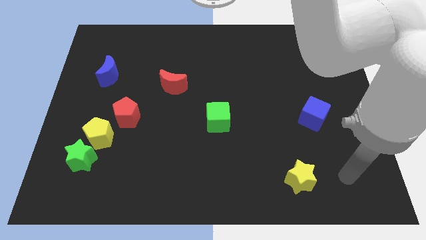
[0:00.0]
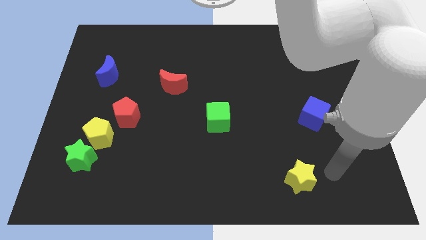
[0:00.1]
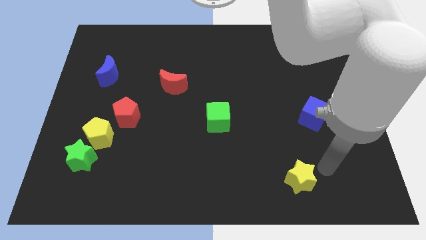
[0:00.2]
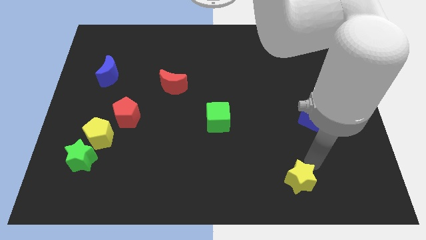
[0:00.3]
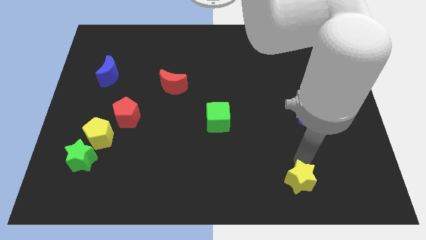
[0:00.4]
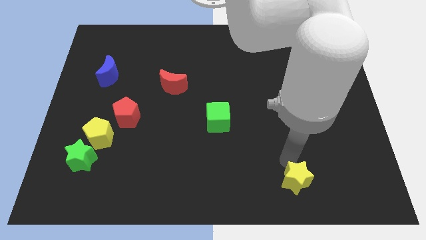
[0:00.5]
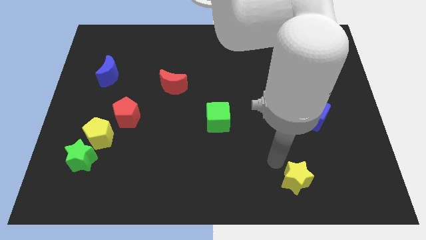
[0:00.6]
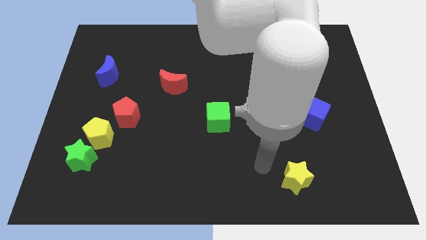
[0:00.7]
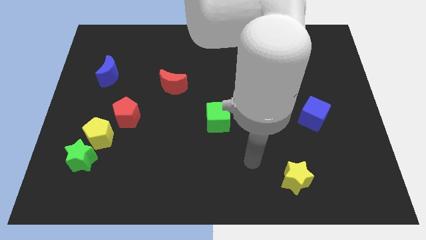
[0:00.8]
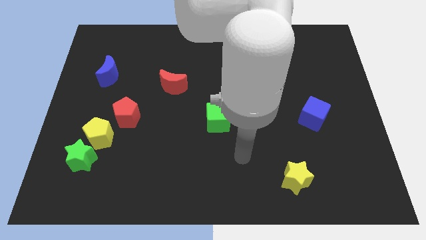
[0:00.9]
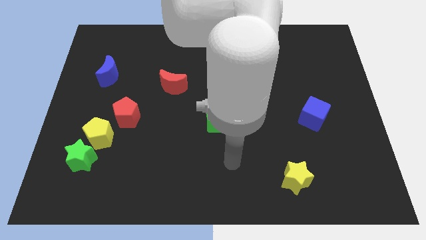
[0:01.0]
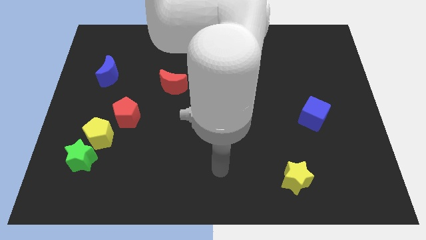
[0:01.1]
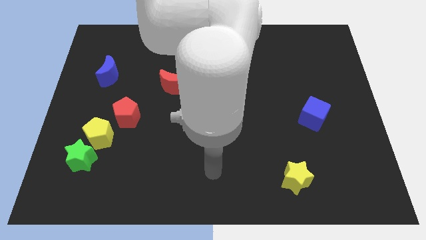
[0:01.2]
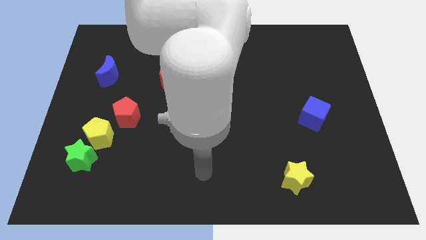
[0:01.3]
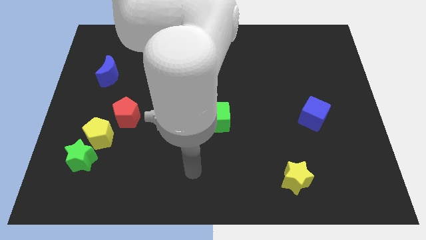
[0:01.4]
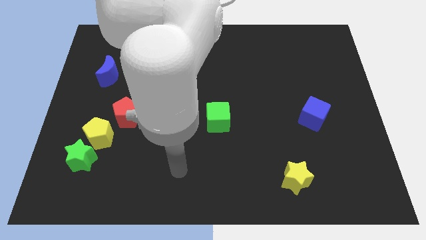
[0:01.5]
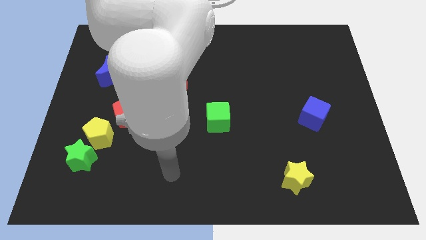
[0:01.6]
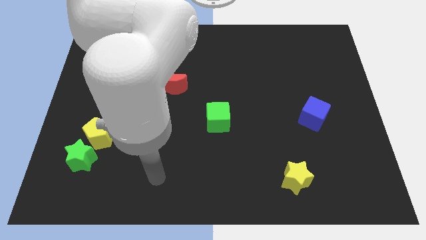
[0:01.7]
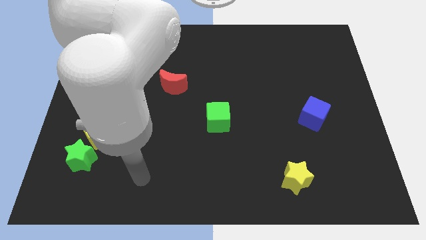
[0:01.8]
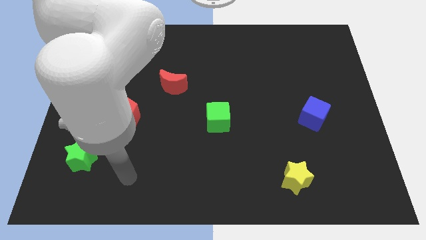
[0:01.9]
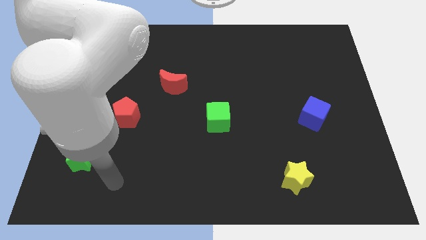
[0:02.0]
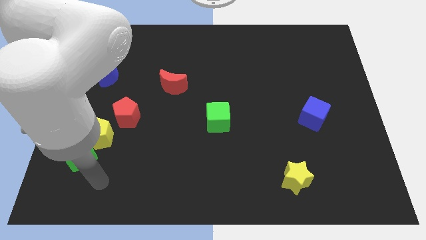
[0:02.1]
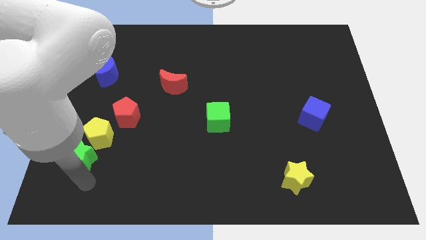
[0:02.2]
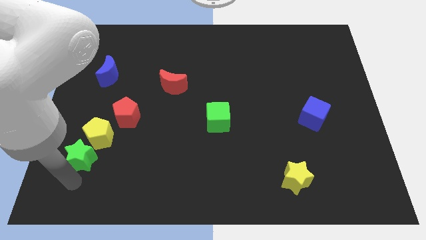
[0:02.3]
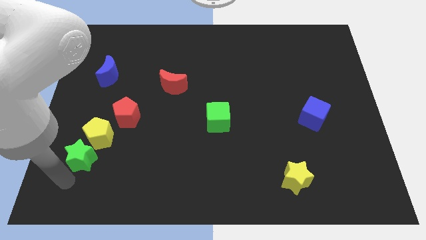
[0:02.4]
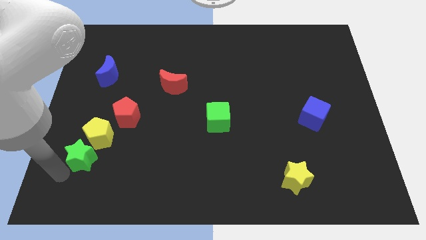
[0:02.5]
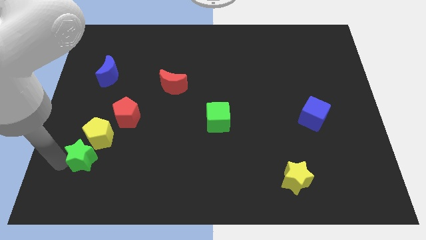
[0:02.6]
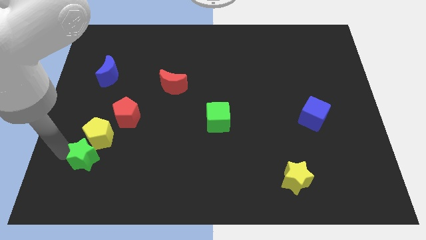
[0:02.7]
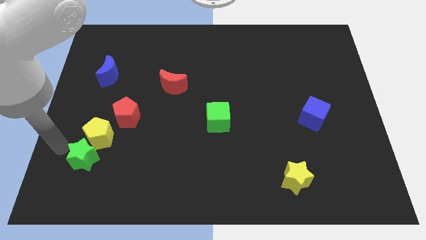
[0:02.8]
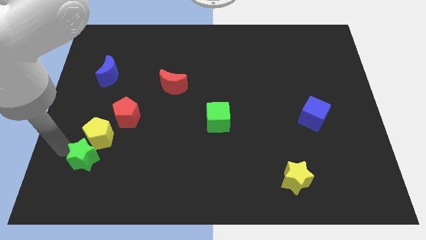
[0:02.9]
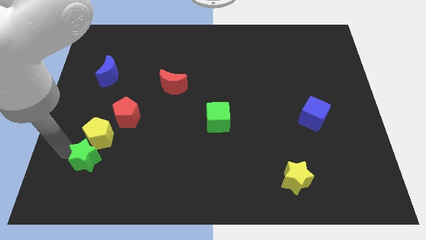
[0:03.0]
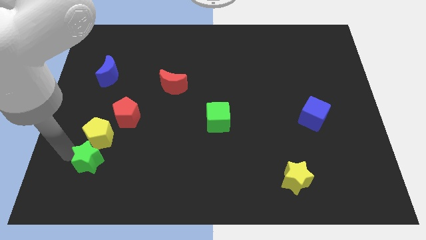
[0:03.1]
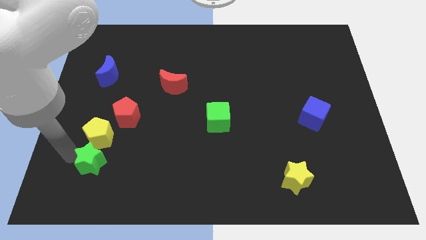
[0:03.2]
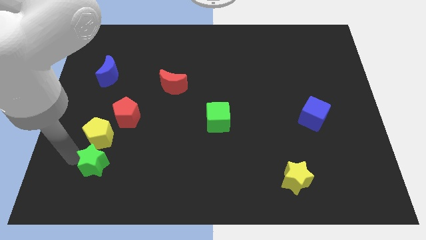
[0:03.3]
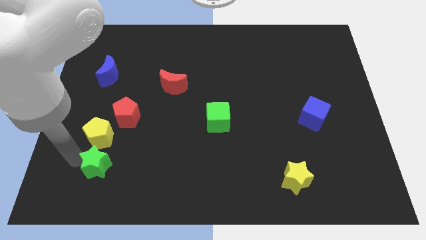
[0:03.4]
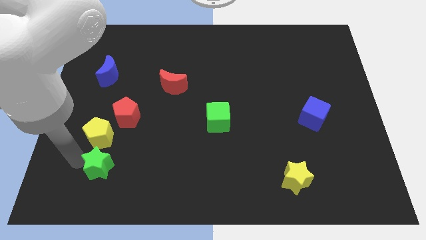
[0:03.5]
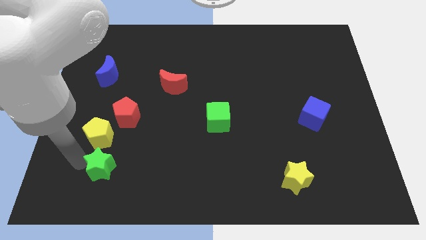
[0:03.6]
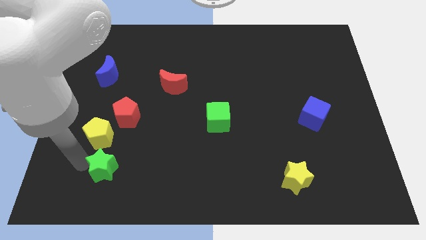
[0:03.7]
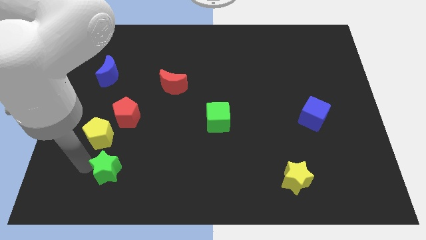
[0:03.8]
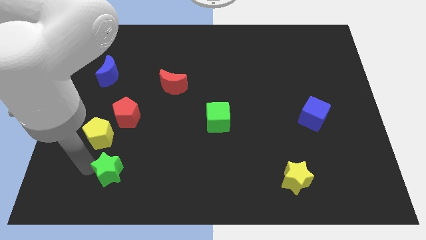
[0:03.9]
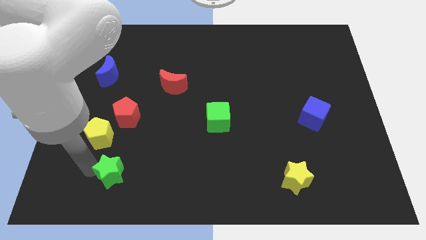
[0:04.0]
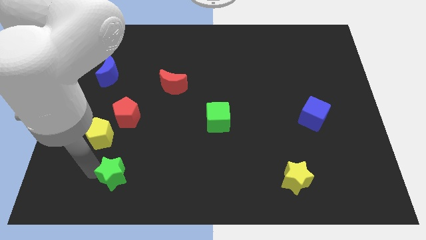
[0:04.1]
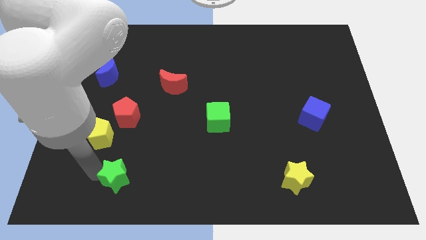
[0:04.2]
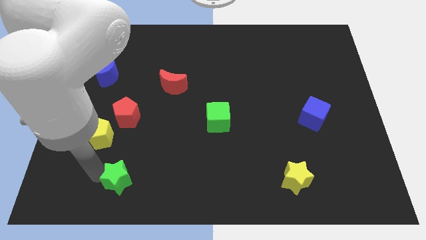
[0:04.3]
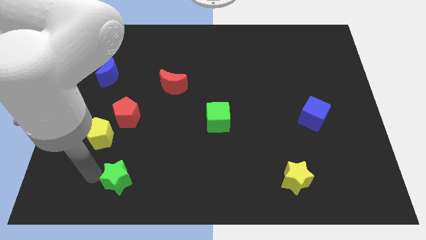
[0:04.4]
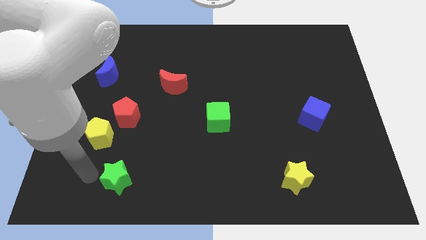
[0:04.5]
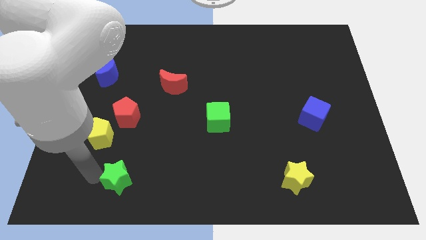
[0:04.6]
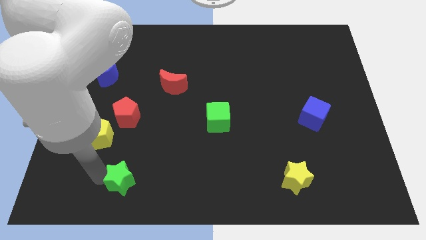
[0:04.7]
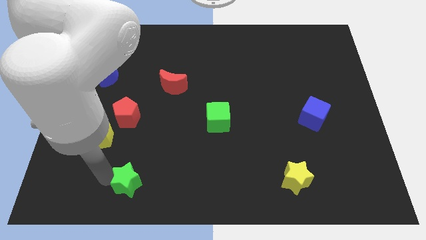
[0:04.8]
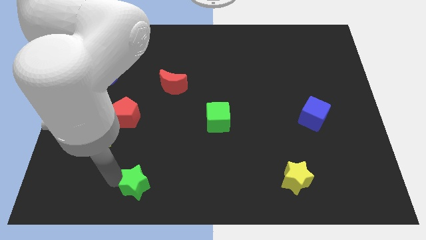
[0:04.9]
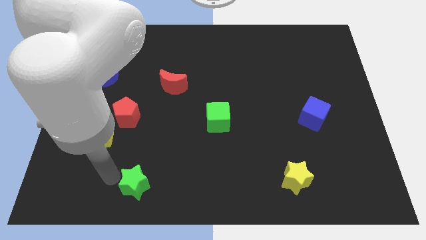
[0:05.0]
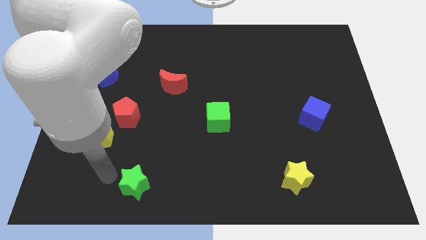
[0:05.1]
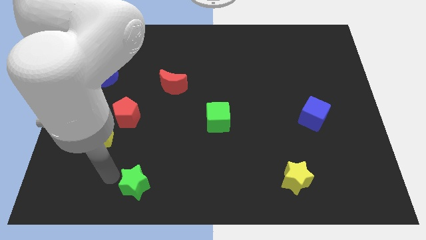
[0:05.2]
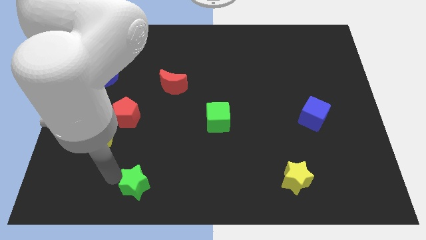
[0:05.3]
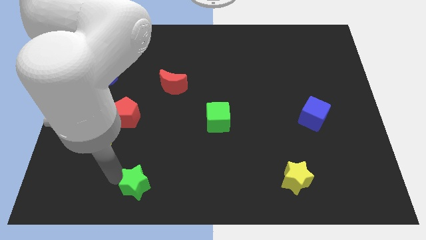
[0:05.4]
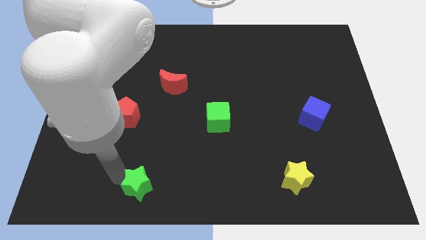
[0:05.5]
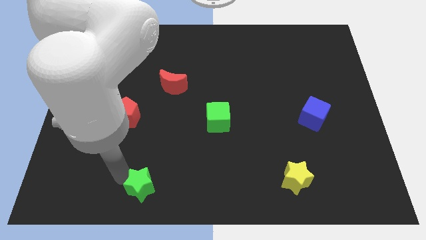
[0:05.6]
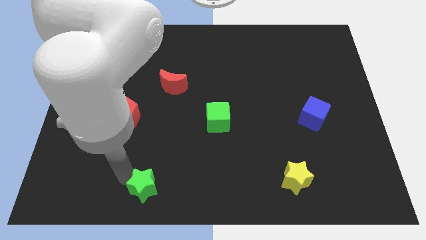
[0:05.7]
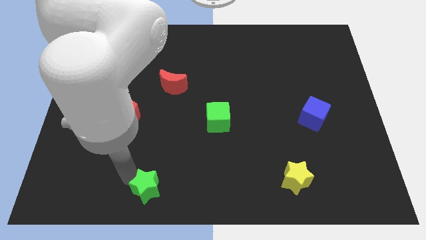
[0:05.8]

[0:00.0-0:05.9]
push the green star to the bottom side

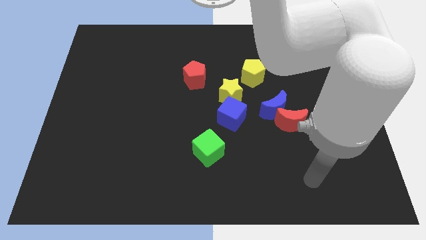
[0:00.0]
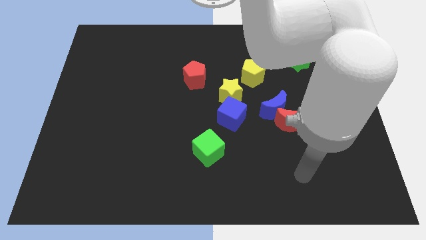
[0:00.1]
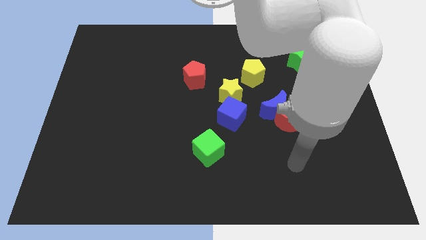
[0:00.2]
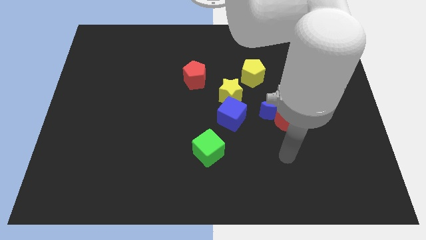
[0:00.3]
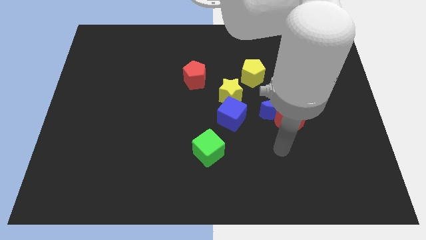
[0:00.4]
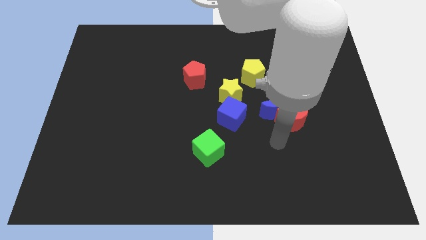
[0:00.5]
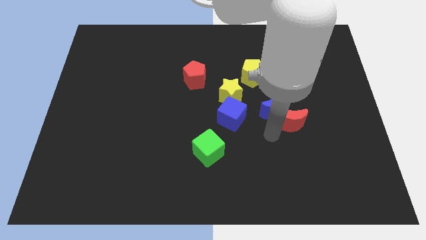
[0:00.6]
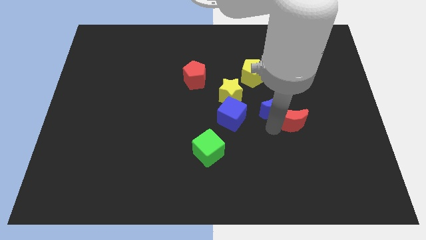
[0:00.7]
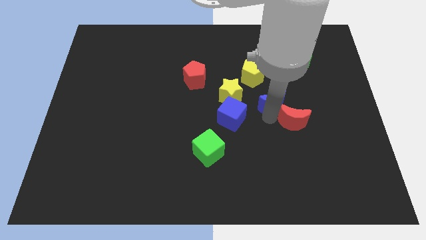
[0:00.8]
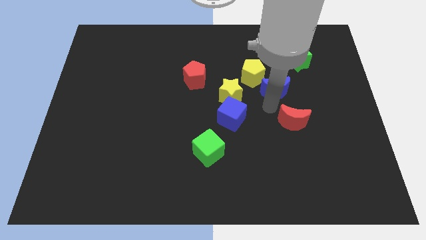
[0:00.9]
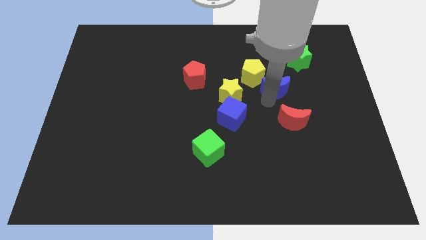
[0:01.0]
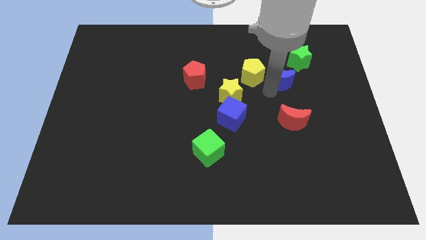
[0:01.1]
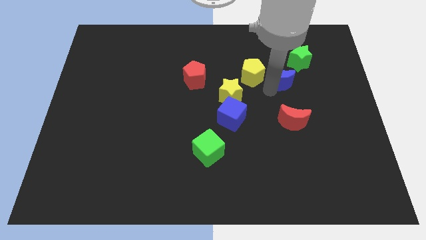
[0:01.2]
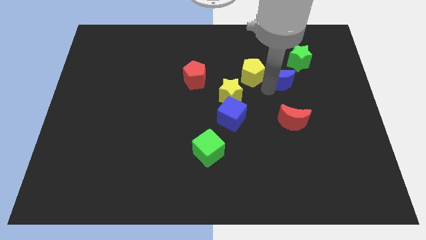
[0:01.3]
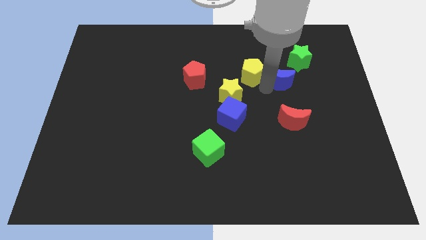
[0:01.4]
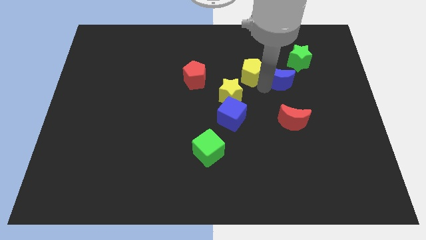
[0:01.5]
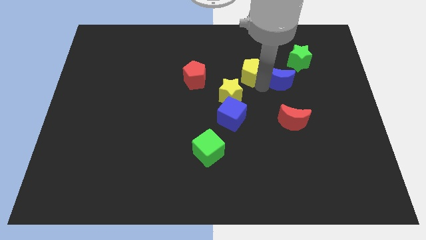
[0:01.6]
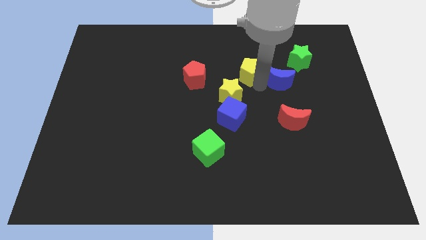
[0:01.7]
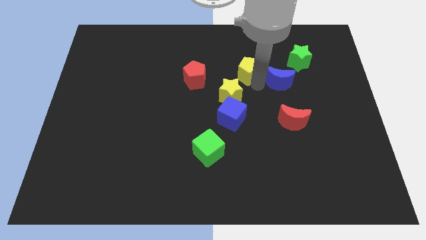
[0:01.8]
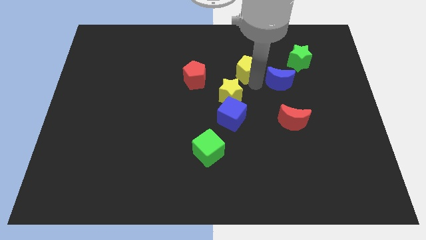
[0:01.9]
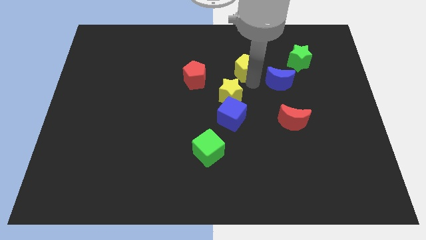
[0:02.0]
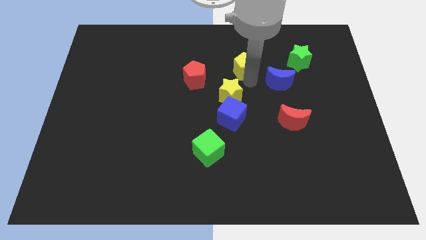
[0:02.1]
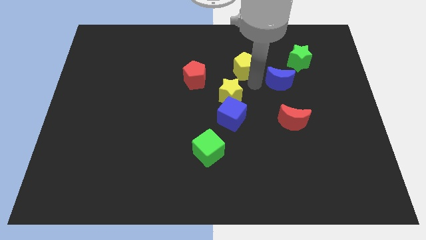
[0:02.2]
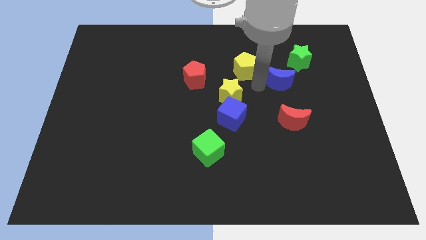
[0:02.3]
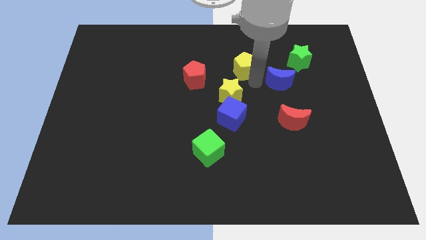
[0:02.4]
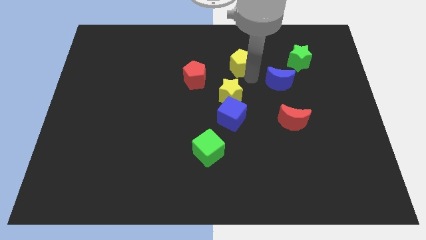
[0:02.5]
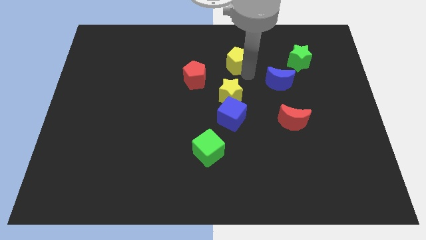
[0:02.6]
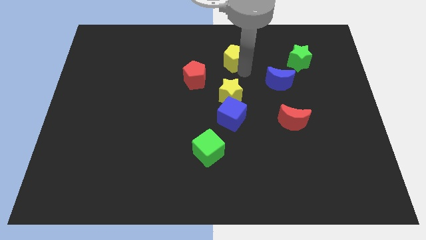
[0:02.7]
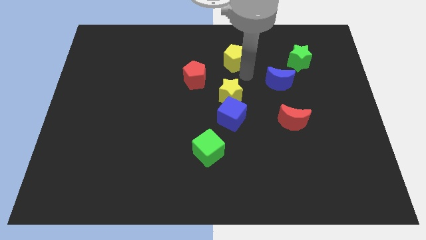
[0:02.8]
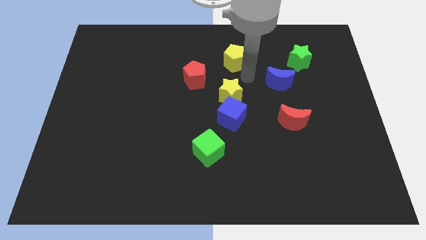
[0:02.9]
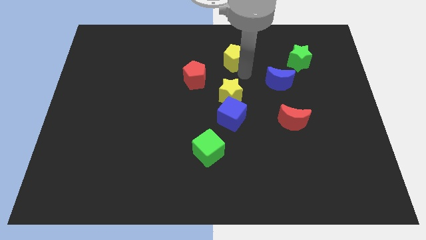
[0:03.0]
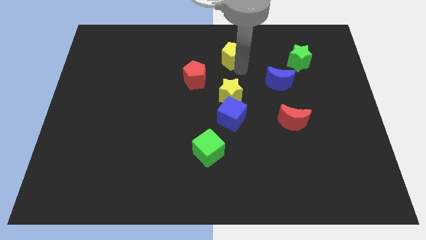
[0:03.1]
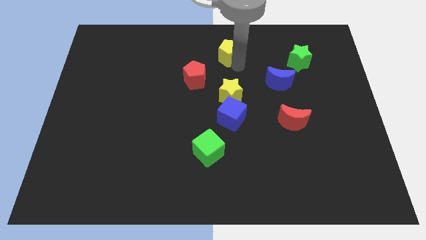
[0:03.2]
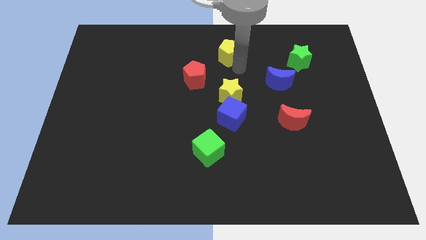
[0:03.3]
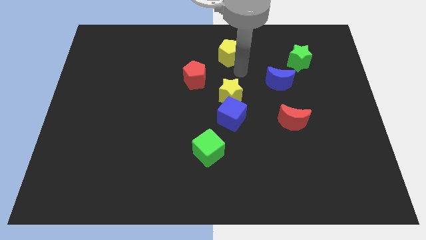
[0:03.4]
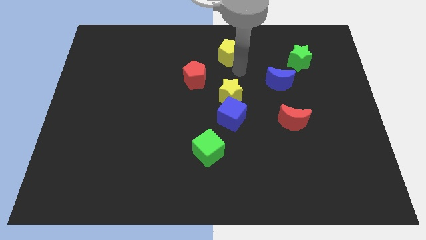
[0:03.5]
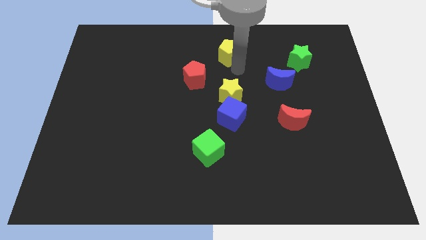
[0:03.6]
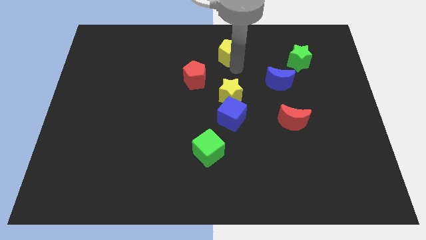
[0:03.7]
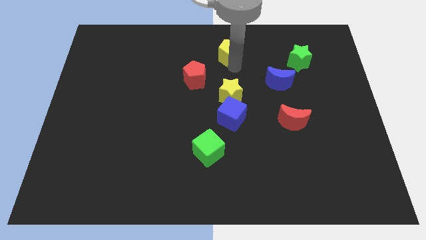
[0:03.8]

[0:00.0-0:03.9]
slide the yellow pentagon to the top
